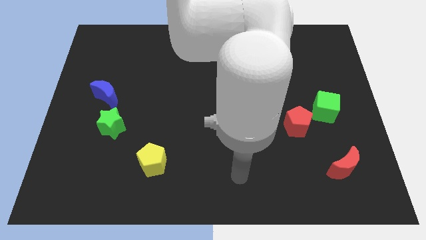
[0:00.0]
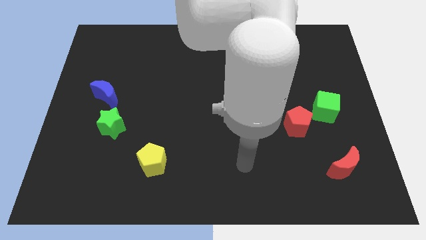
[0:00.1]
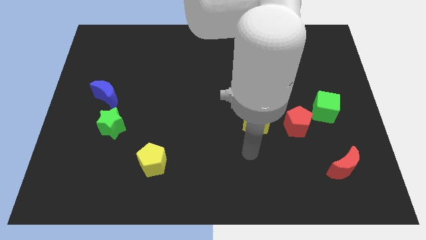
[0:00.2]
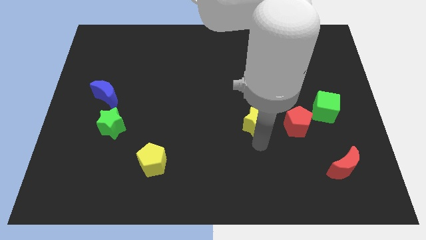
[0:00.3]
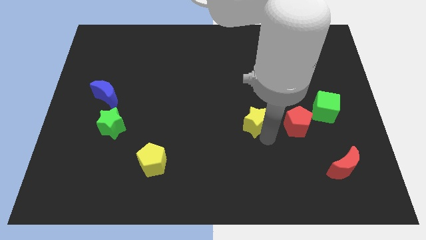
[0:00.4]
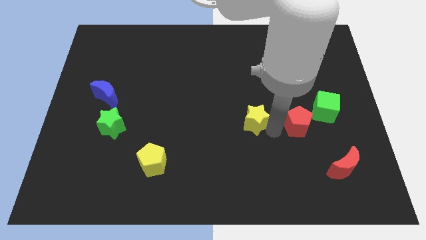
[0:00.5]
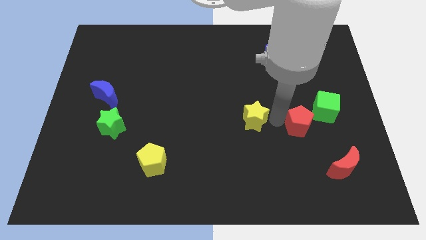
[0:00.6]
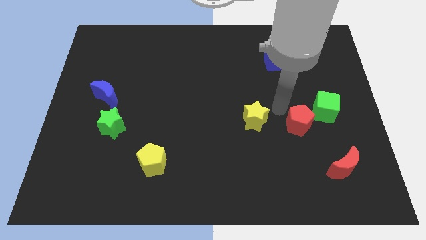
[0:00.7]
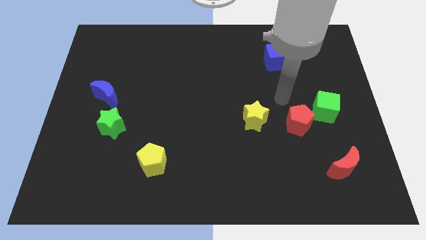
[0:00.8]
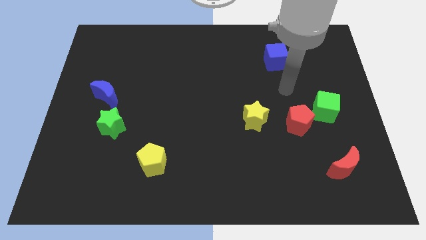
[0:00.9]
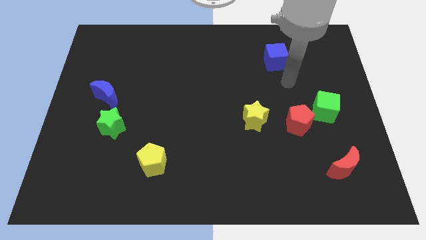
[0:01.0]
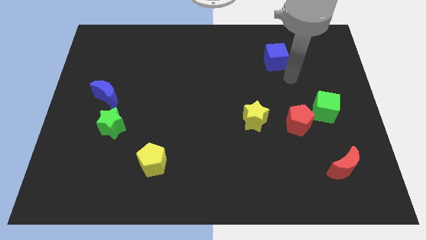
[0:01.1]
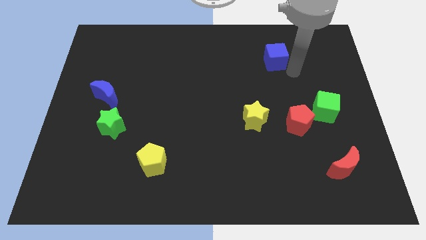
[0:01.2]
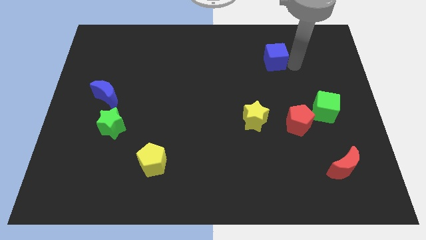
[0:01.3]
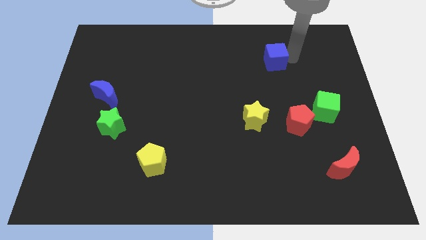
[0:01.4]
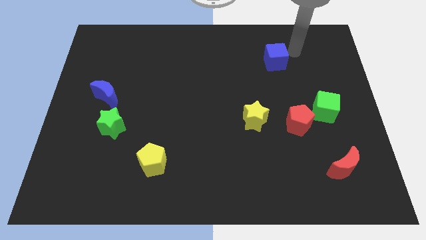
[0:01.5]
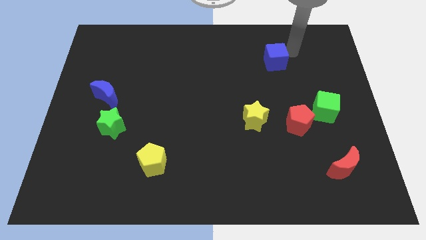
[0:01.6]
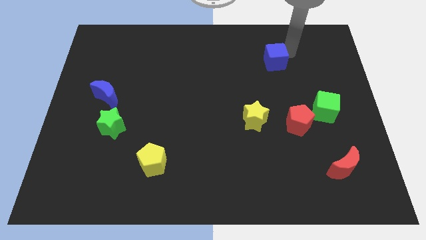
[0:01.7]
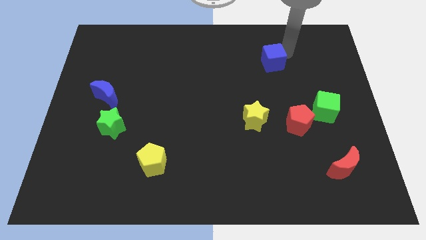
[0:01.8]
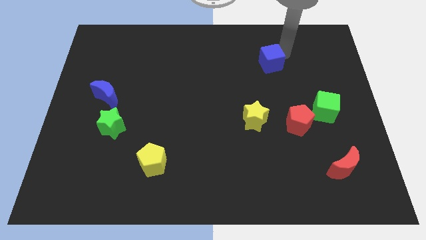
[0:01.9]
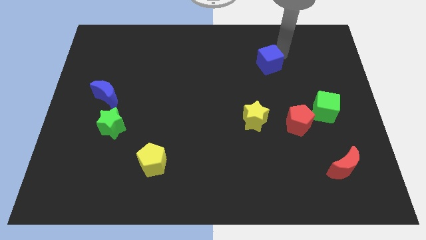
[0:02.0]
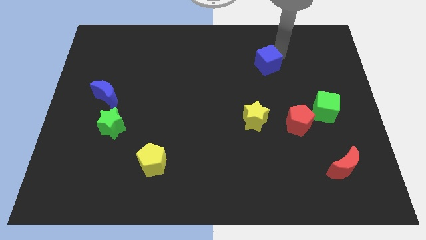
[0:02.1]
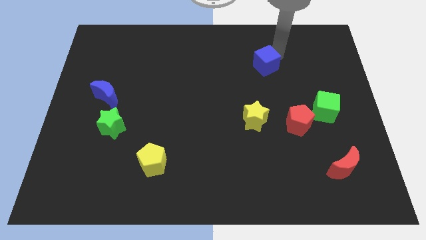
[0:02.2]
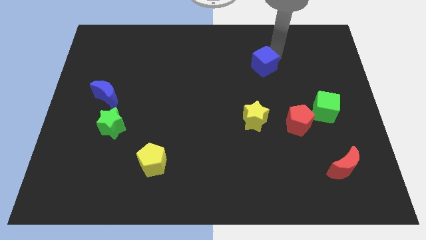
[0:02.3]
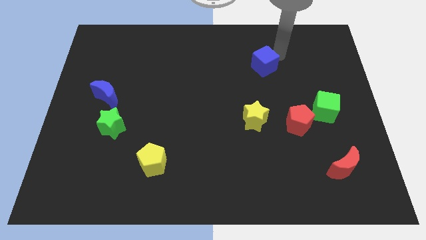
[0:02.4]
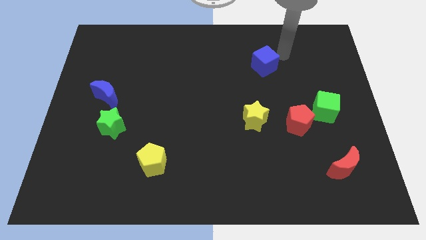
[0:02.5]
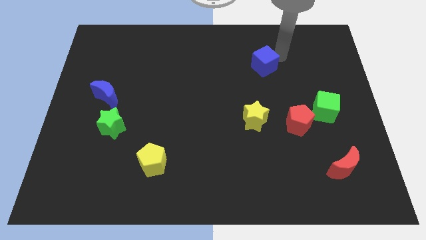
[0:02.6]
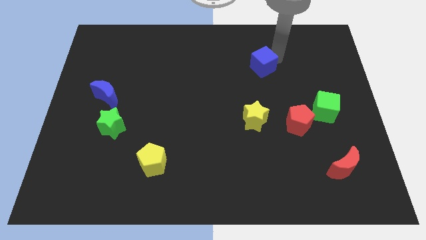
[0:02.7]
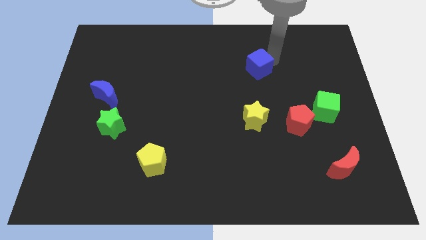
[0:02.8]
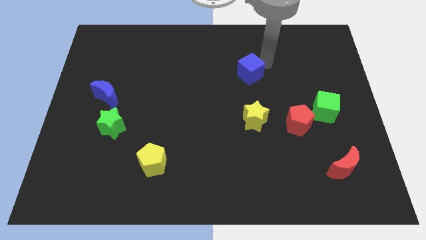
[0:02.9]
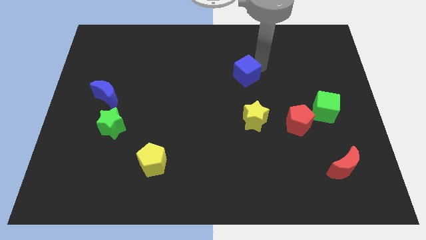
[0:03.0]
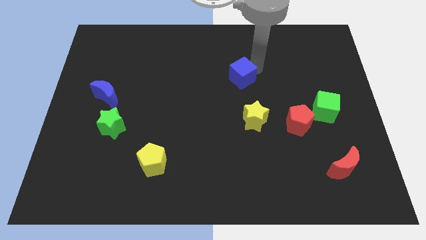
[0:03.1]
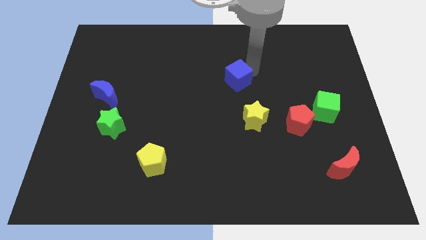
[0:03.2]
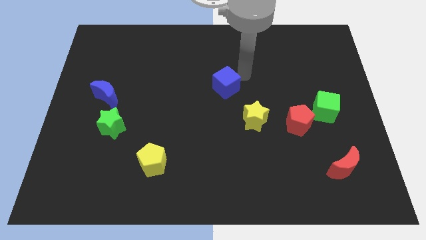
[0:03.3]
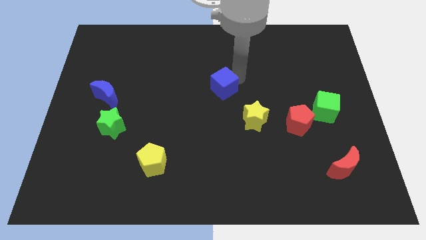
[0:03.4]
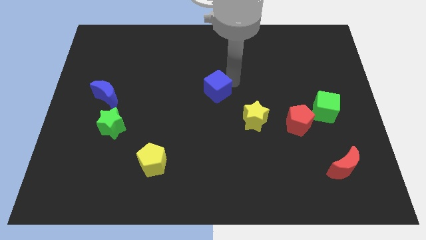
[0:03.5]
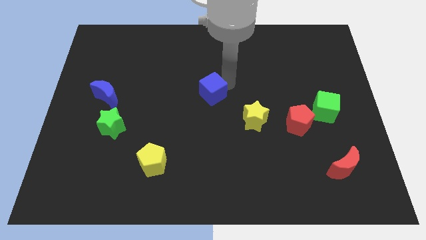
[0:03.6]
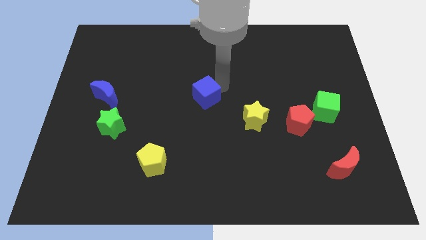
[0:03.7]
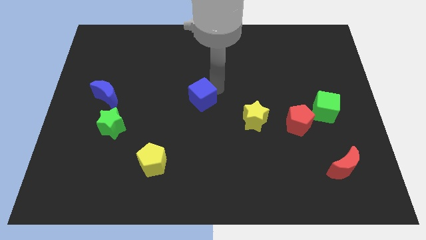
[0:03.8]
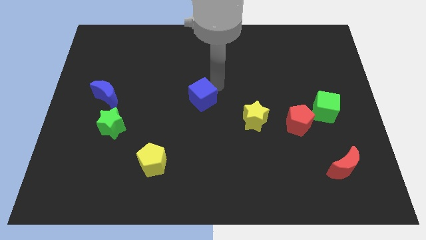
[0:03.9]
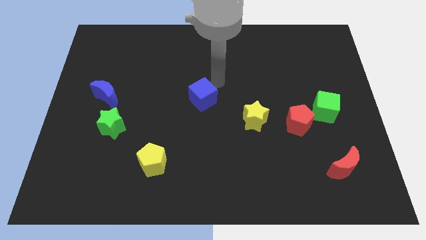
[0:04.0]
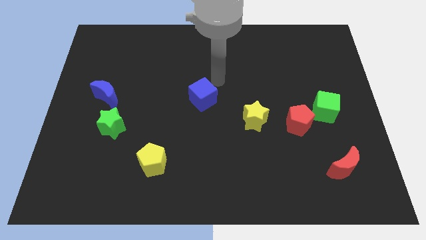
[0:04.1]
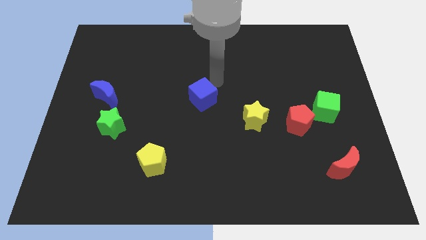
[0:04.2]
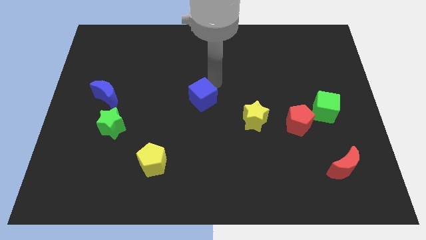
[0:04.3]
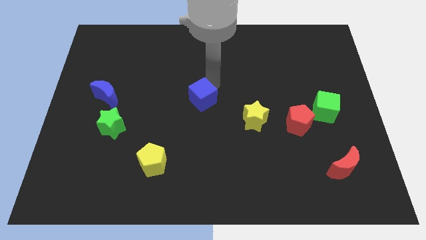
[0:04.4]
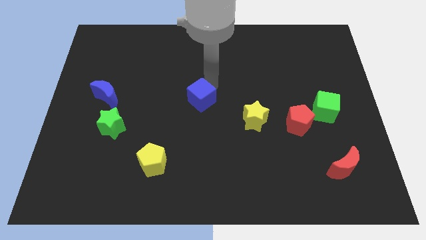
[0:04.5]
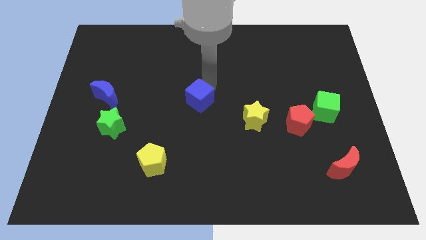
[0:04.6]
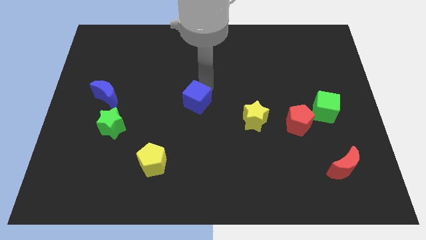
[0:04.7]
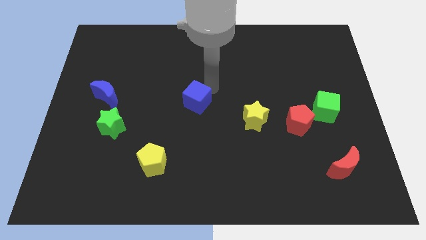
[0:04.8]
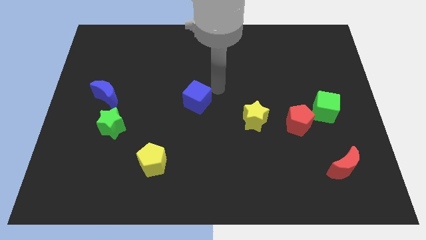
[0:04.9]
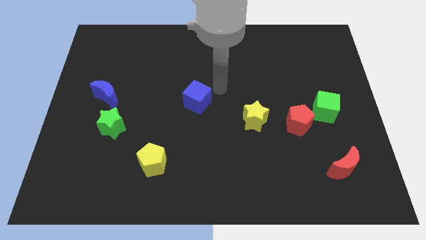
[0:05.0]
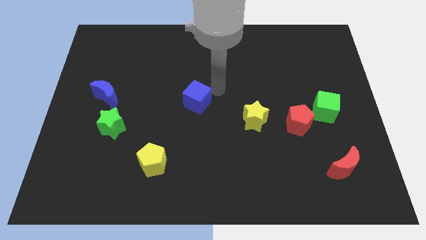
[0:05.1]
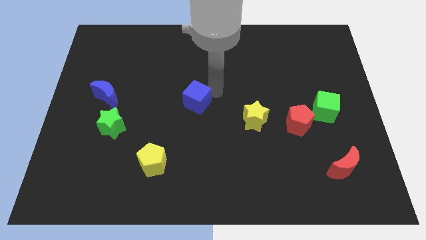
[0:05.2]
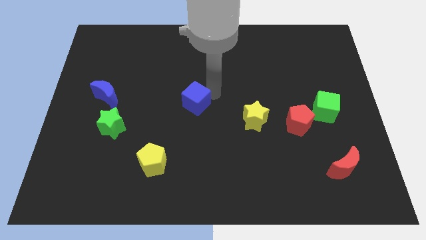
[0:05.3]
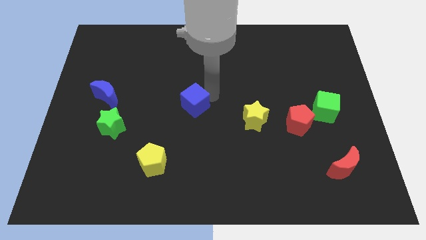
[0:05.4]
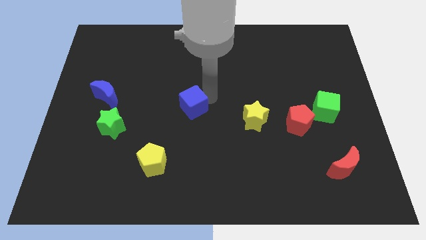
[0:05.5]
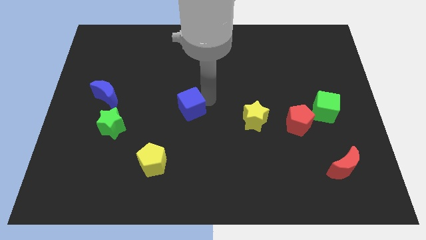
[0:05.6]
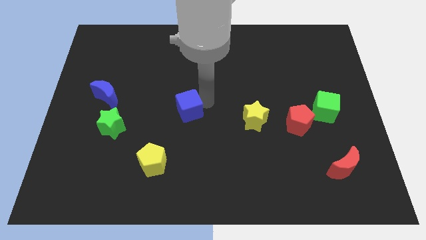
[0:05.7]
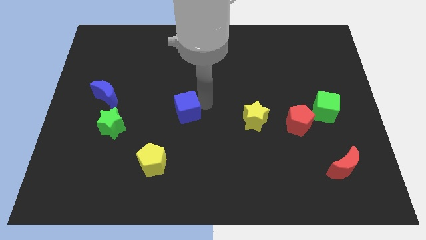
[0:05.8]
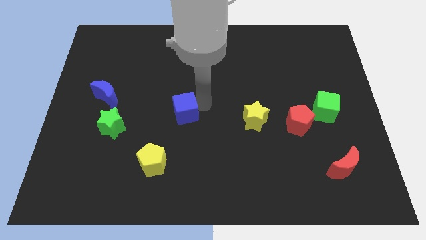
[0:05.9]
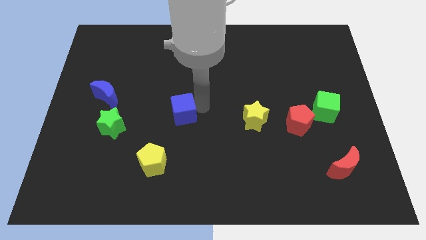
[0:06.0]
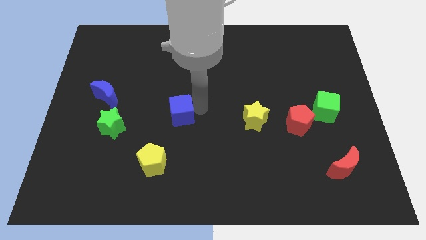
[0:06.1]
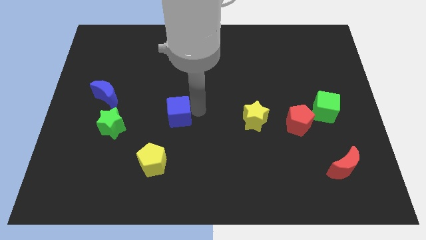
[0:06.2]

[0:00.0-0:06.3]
slide the blue cube right of the green star

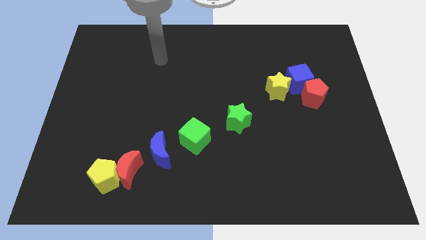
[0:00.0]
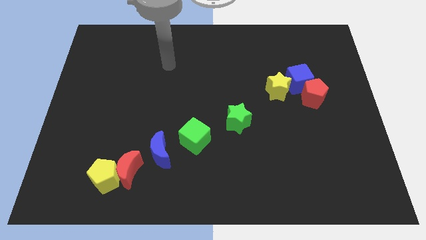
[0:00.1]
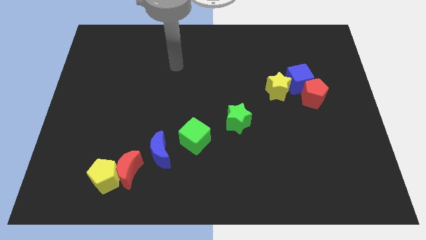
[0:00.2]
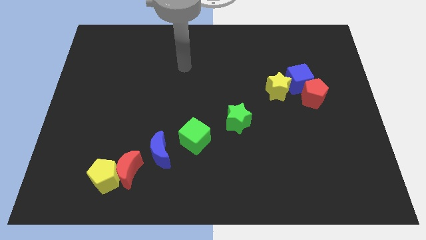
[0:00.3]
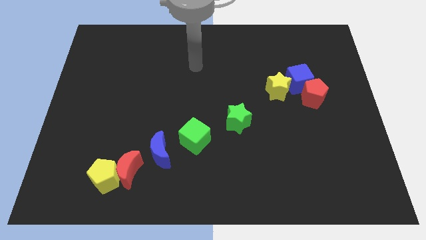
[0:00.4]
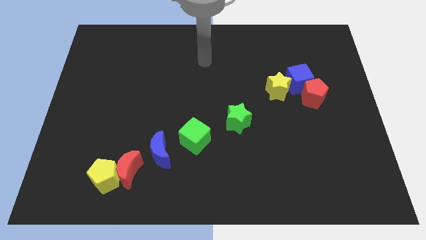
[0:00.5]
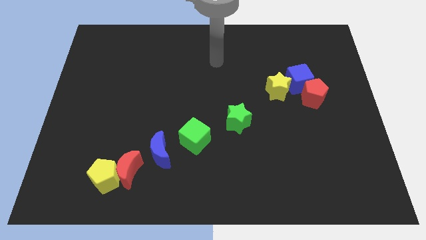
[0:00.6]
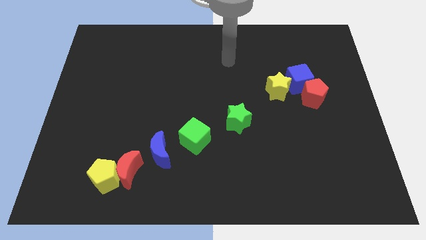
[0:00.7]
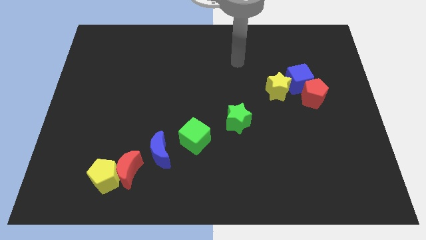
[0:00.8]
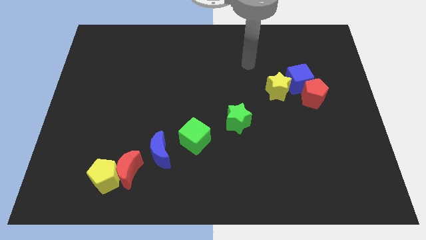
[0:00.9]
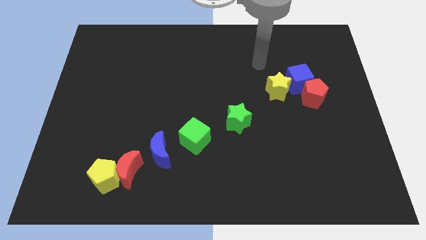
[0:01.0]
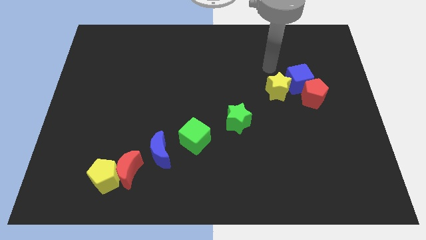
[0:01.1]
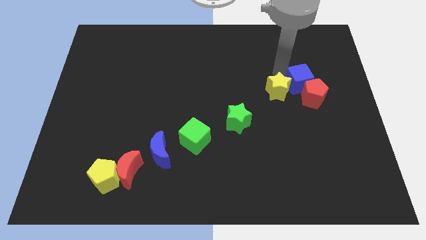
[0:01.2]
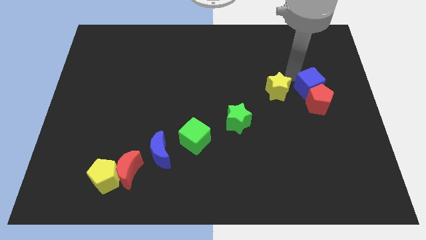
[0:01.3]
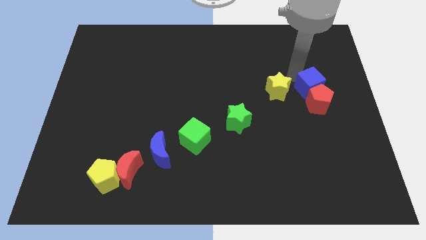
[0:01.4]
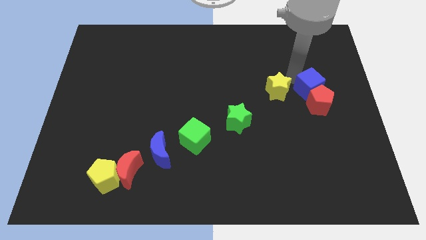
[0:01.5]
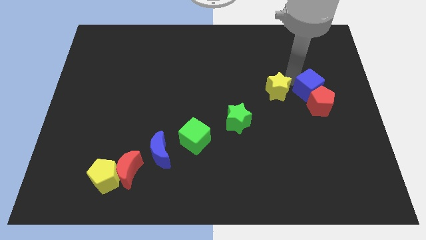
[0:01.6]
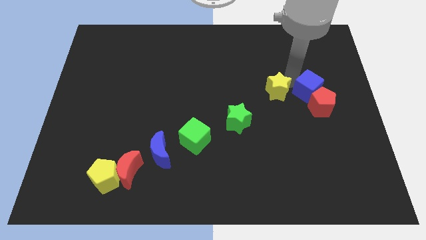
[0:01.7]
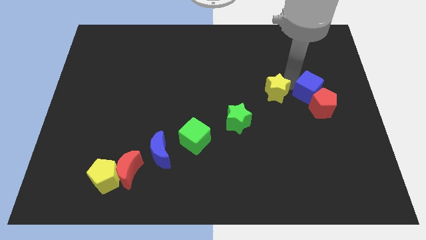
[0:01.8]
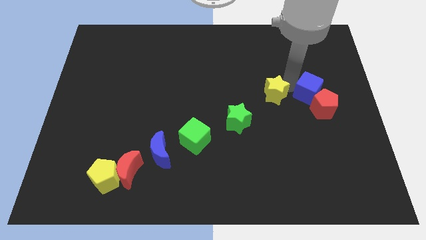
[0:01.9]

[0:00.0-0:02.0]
put the yellow star to the top right side of the green star
